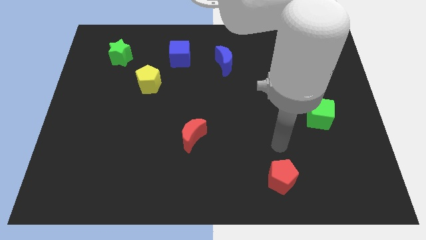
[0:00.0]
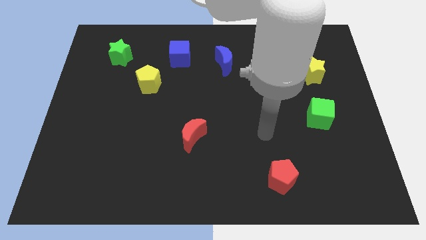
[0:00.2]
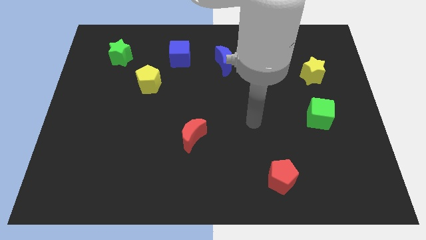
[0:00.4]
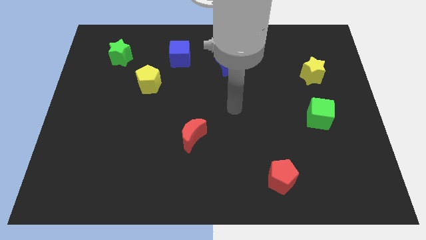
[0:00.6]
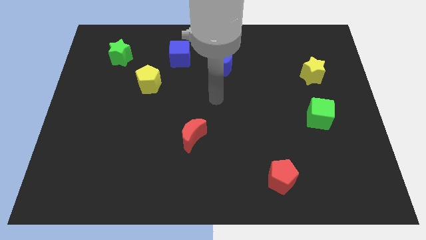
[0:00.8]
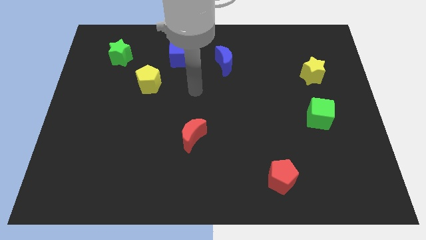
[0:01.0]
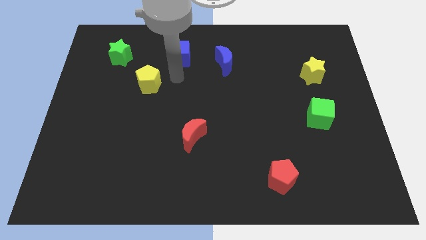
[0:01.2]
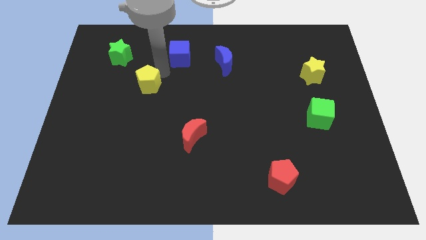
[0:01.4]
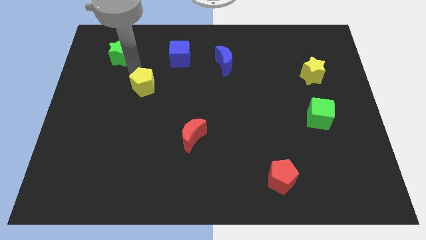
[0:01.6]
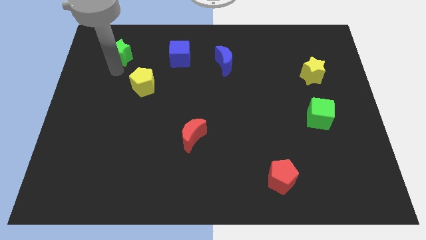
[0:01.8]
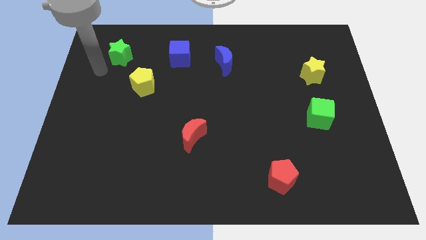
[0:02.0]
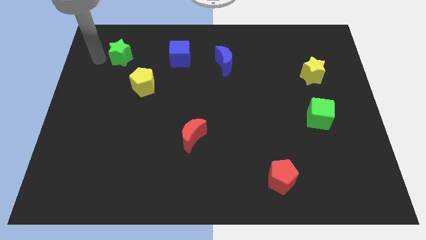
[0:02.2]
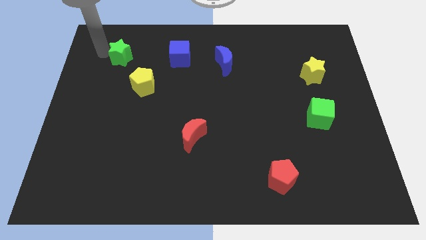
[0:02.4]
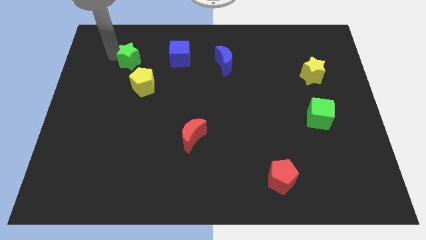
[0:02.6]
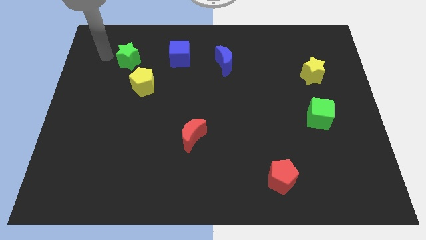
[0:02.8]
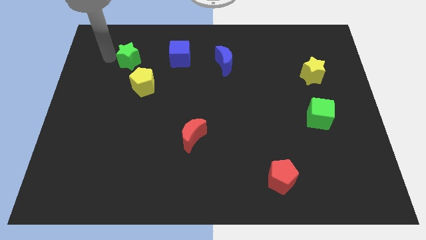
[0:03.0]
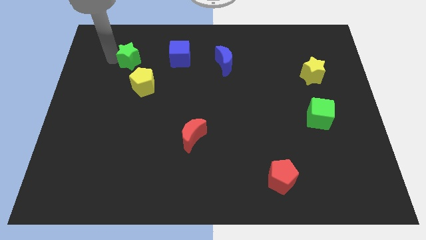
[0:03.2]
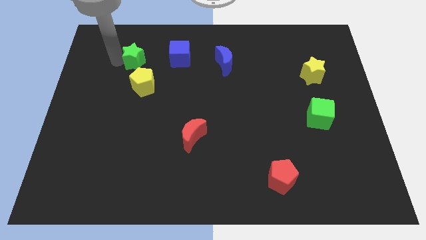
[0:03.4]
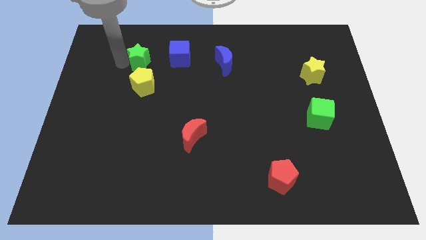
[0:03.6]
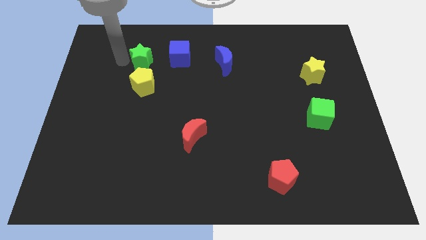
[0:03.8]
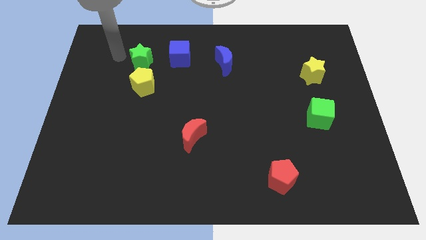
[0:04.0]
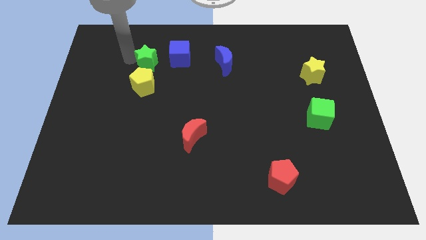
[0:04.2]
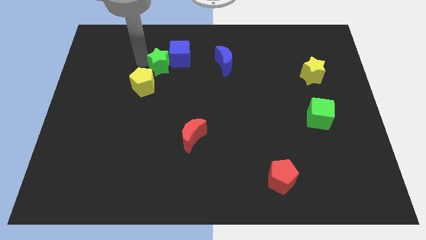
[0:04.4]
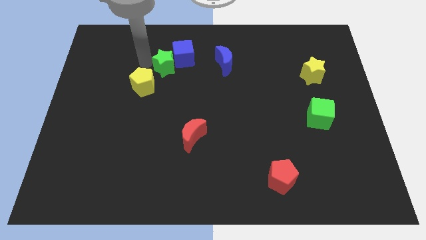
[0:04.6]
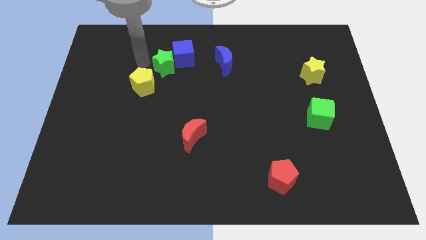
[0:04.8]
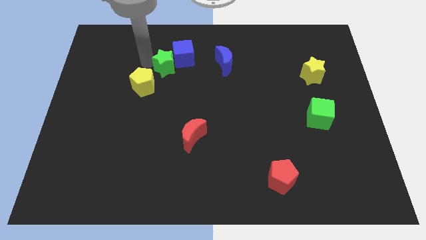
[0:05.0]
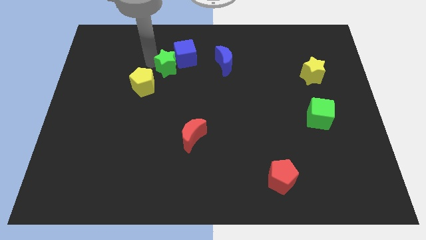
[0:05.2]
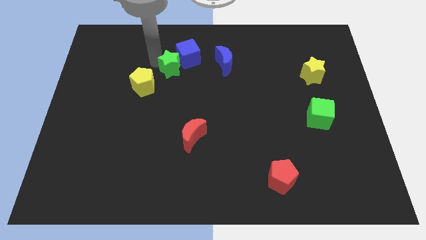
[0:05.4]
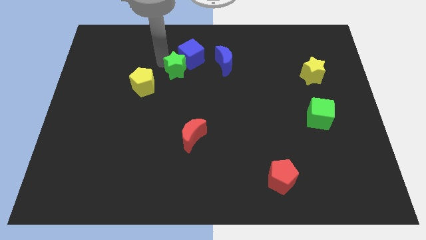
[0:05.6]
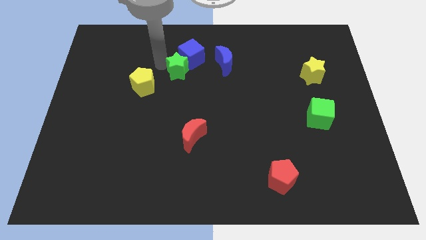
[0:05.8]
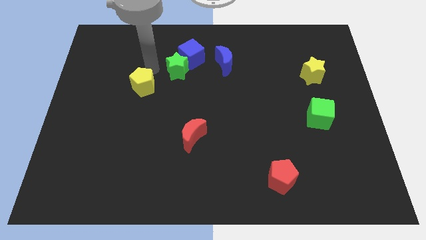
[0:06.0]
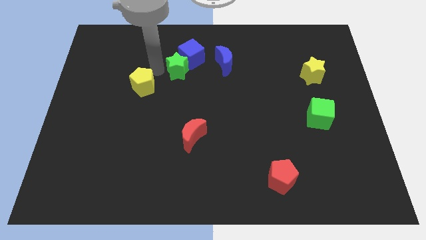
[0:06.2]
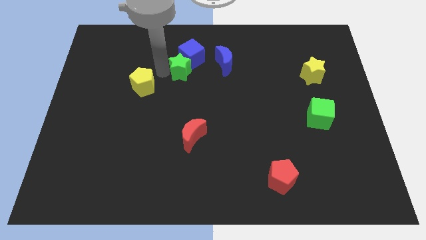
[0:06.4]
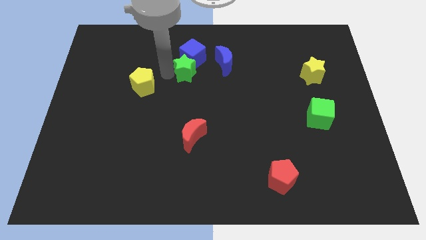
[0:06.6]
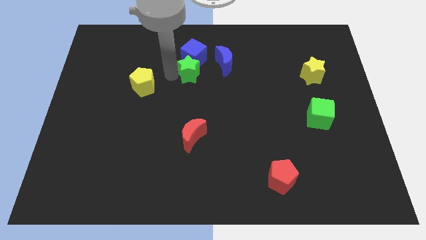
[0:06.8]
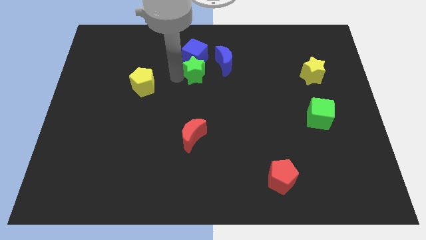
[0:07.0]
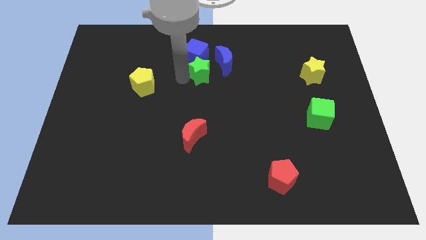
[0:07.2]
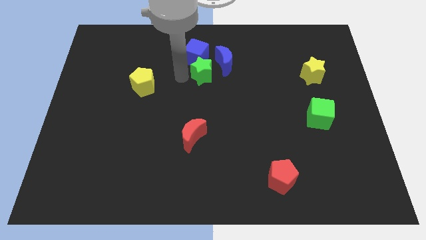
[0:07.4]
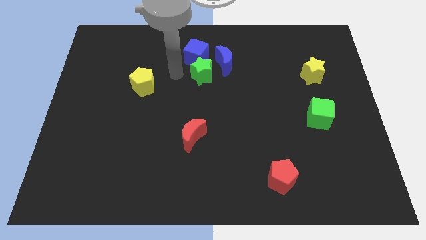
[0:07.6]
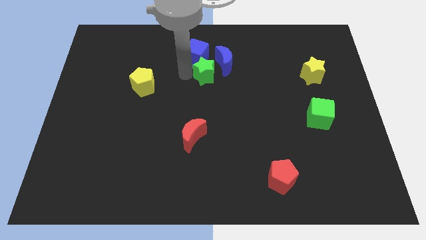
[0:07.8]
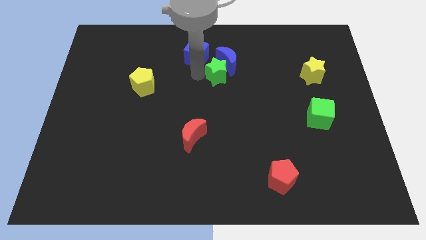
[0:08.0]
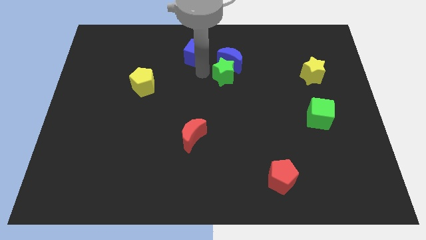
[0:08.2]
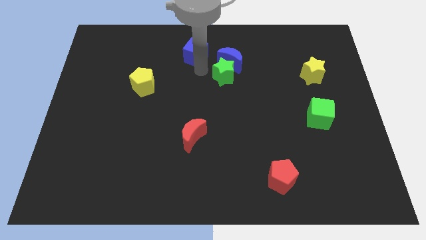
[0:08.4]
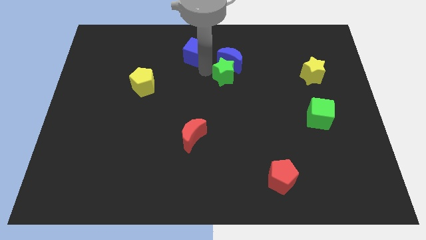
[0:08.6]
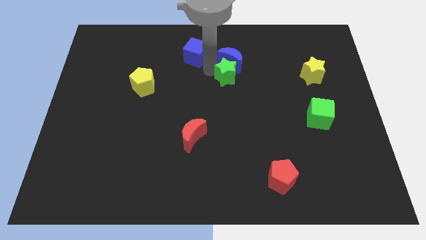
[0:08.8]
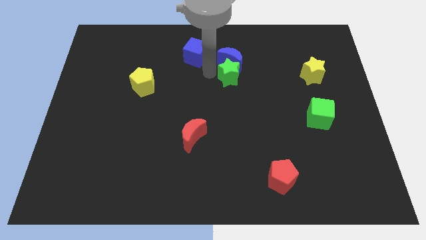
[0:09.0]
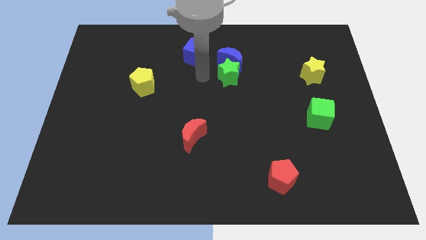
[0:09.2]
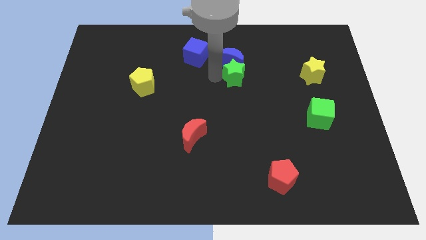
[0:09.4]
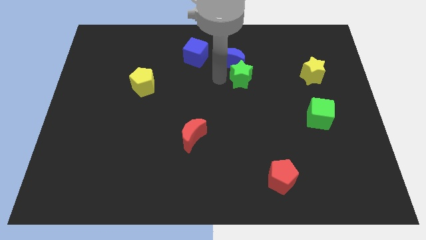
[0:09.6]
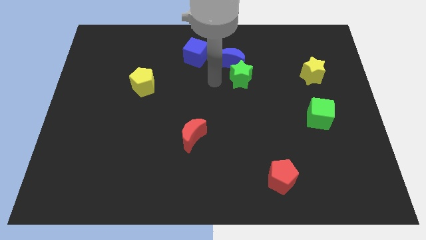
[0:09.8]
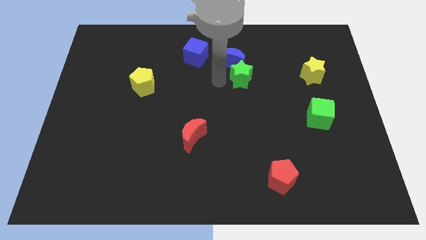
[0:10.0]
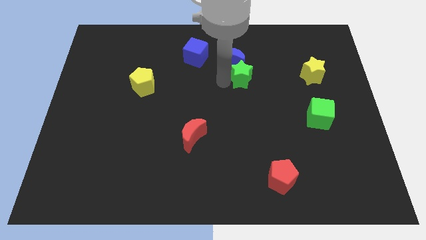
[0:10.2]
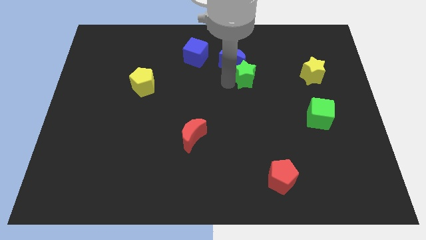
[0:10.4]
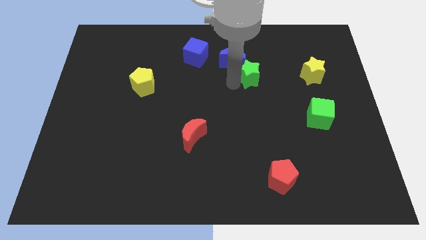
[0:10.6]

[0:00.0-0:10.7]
put the green star to the left side of the yellow star

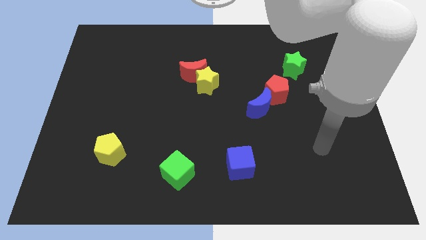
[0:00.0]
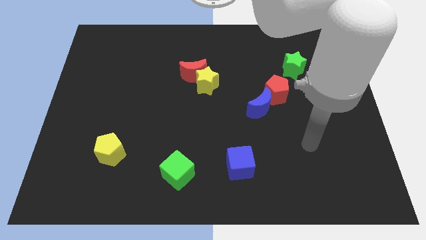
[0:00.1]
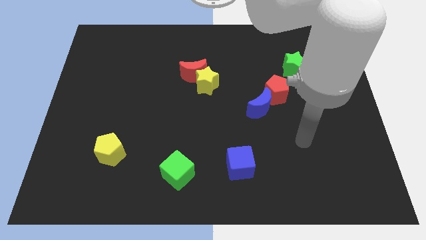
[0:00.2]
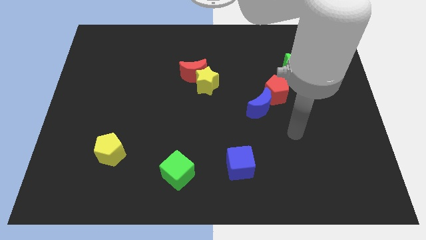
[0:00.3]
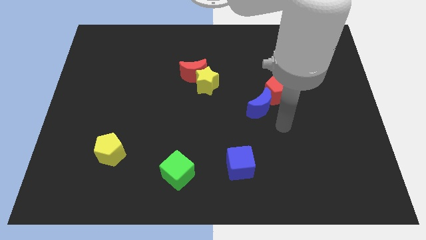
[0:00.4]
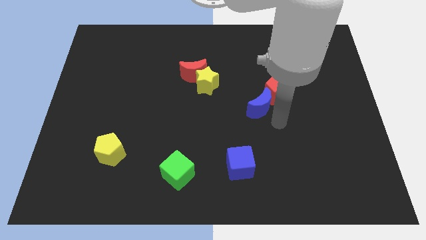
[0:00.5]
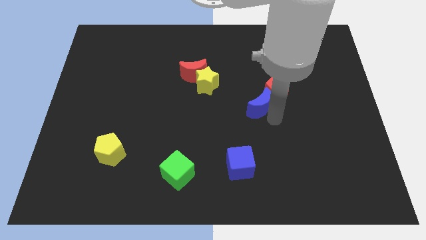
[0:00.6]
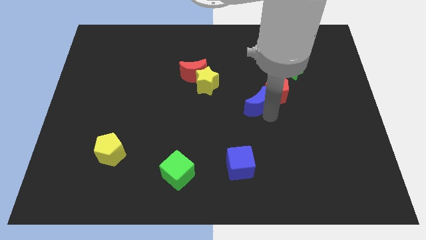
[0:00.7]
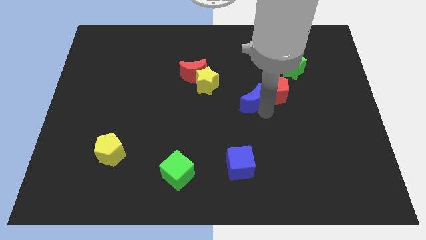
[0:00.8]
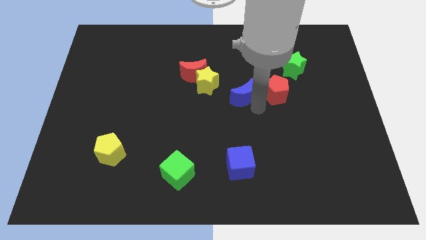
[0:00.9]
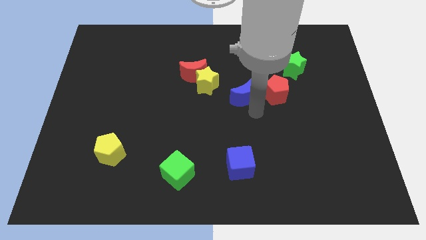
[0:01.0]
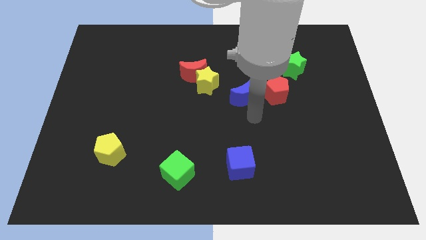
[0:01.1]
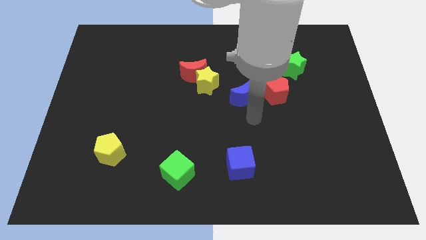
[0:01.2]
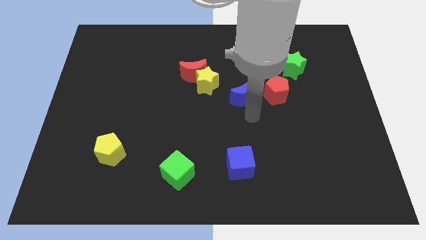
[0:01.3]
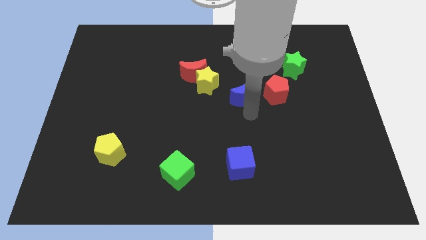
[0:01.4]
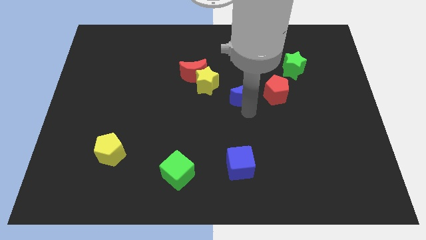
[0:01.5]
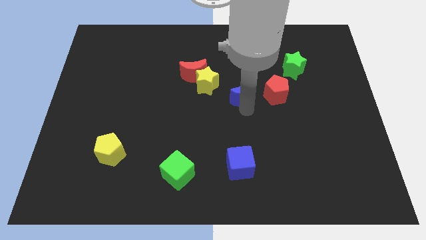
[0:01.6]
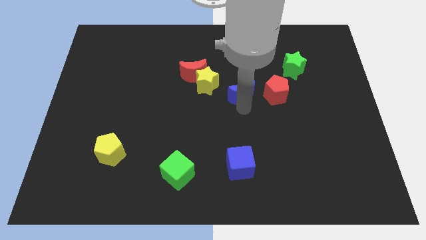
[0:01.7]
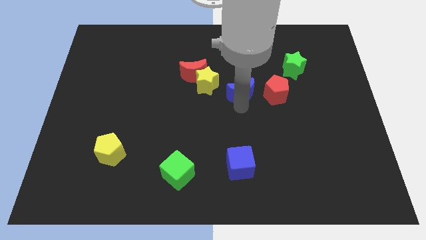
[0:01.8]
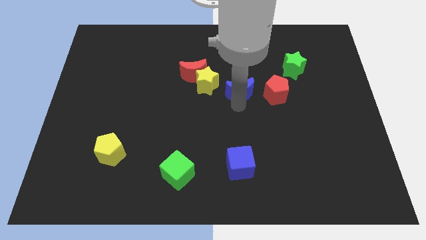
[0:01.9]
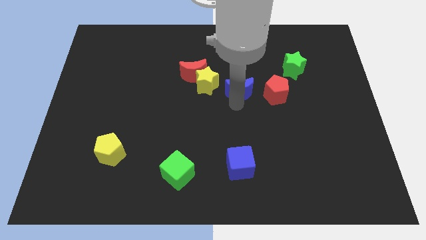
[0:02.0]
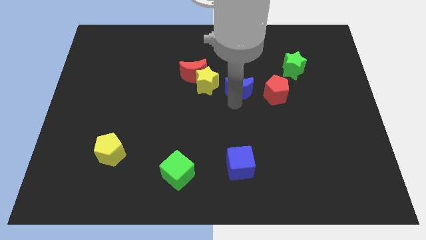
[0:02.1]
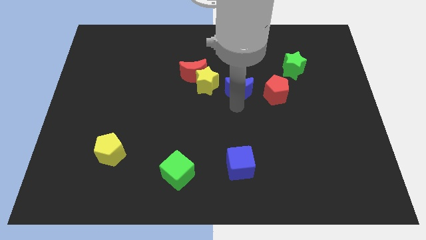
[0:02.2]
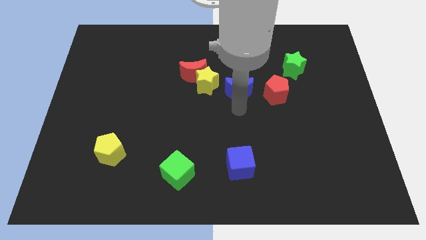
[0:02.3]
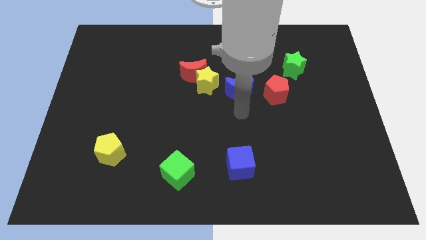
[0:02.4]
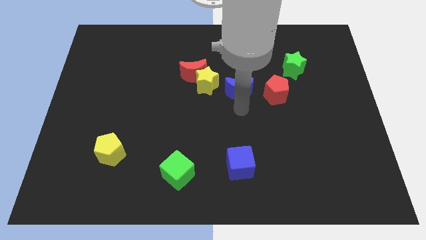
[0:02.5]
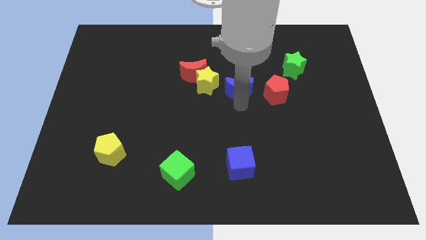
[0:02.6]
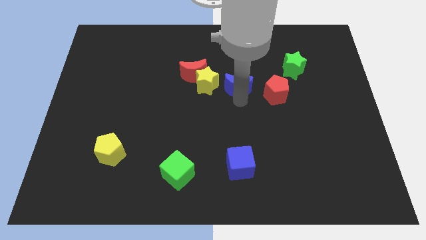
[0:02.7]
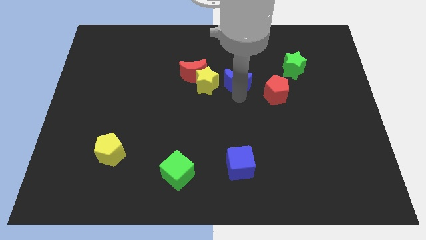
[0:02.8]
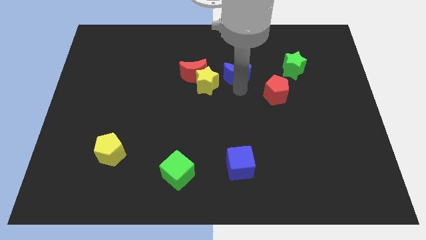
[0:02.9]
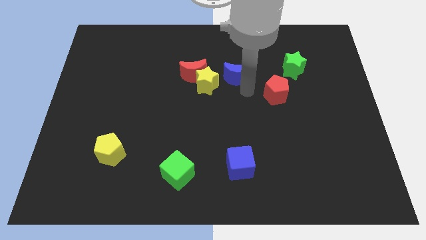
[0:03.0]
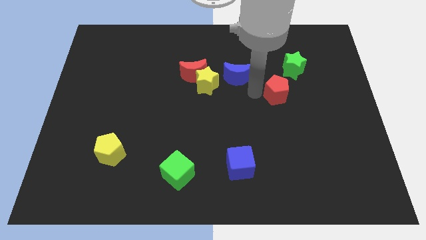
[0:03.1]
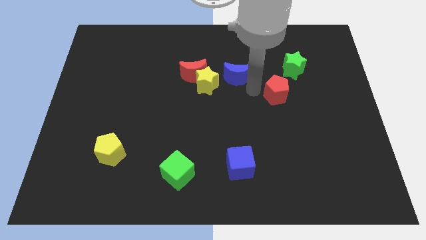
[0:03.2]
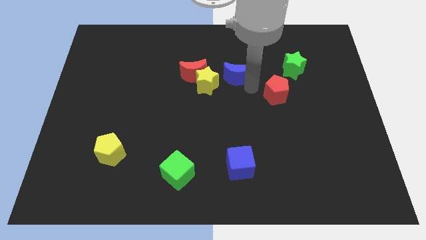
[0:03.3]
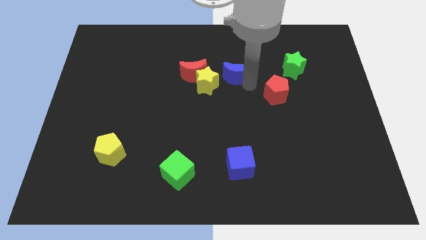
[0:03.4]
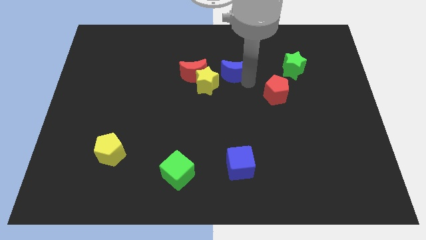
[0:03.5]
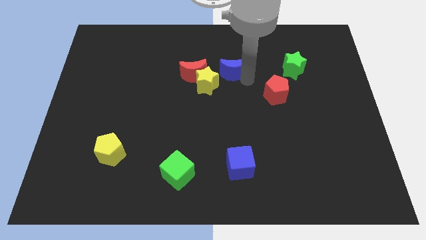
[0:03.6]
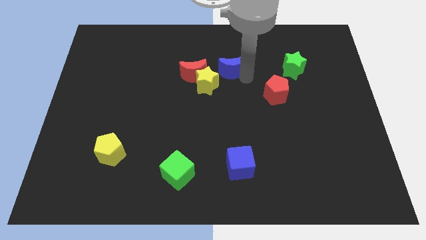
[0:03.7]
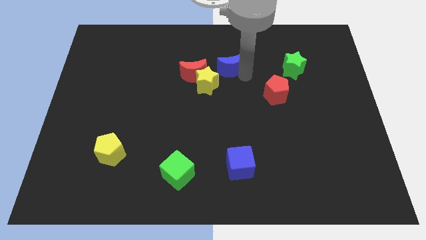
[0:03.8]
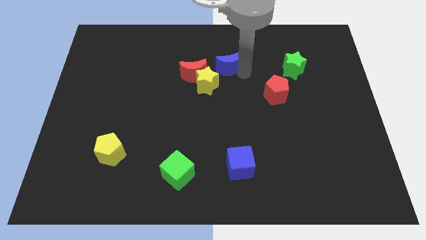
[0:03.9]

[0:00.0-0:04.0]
put the blue moon to the top right of the red moon
